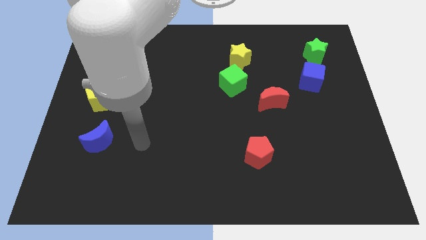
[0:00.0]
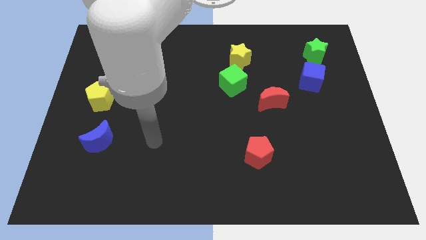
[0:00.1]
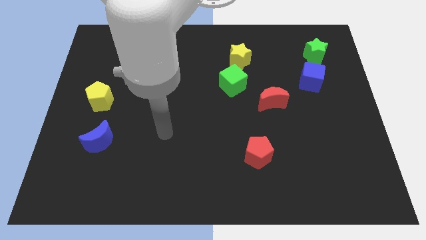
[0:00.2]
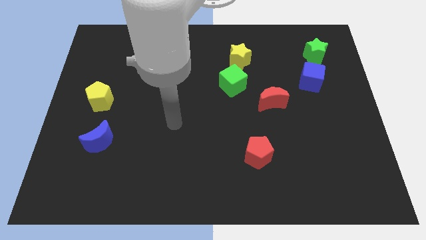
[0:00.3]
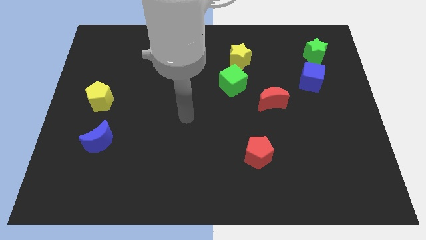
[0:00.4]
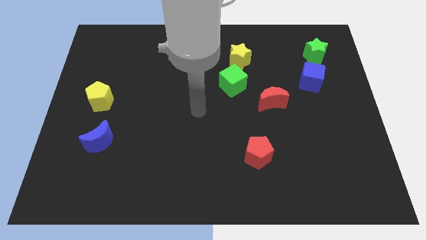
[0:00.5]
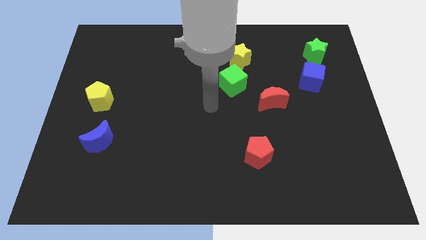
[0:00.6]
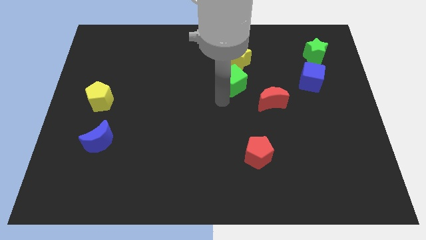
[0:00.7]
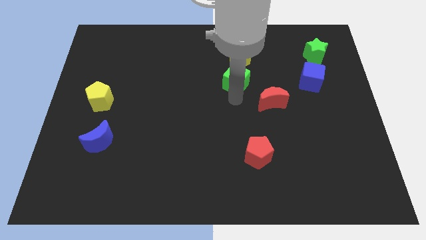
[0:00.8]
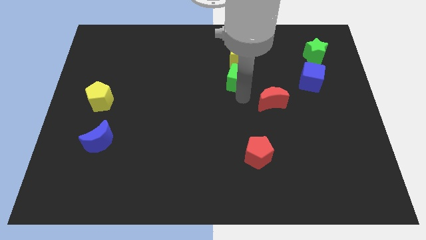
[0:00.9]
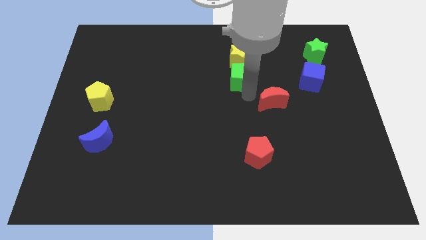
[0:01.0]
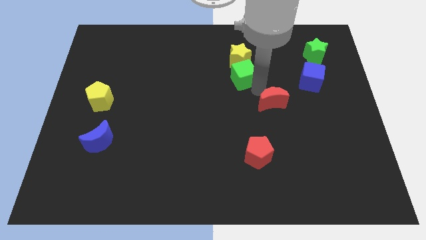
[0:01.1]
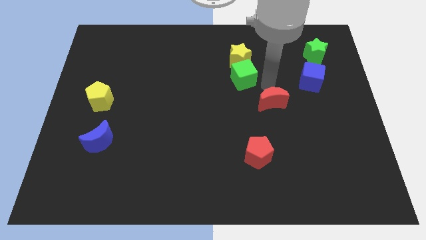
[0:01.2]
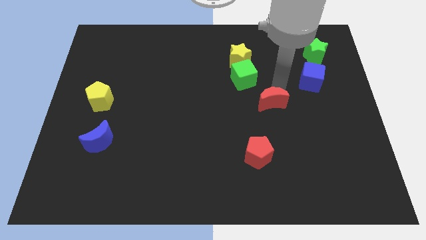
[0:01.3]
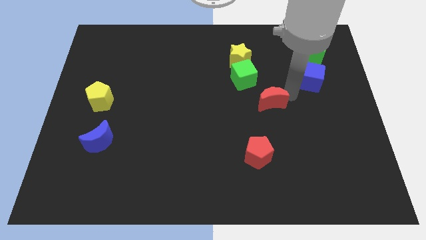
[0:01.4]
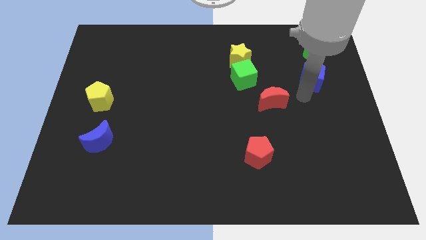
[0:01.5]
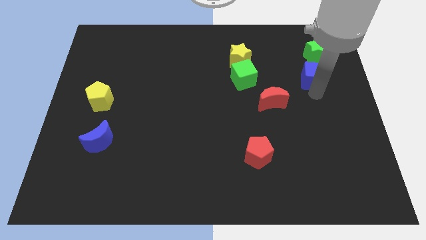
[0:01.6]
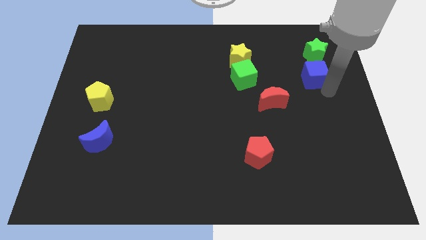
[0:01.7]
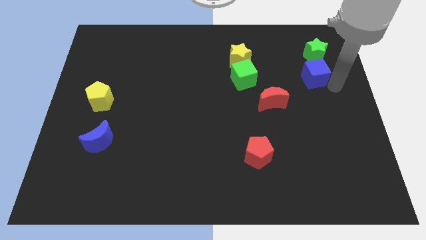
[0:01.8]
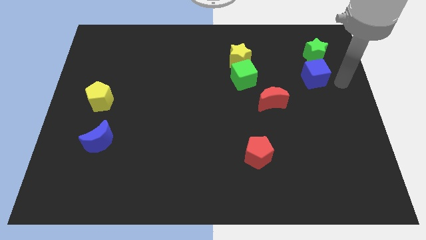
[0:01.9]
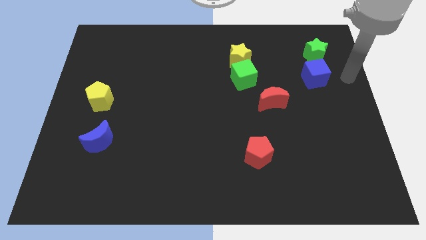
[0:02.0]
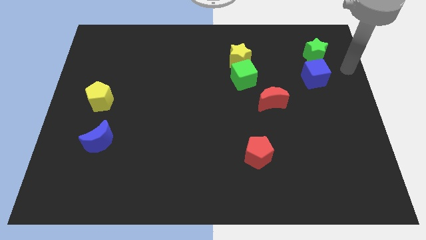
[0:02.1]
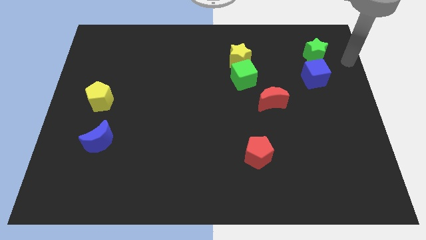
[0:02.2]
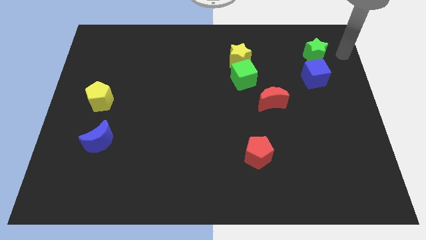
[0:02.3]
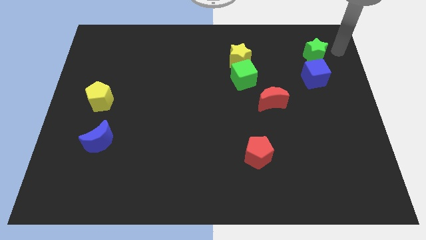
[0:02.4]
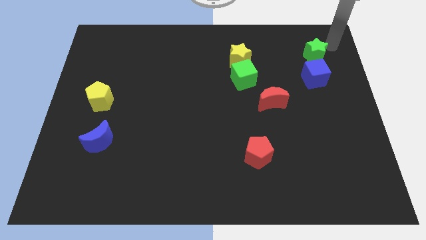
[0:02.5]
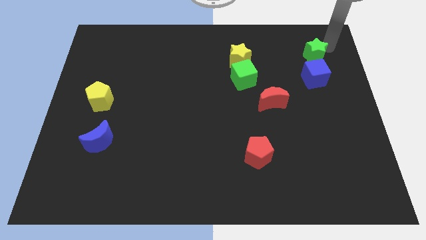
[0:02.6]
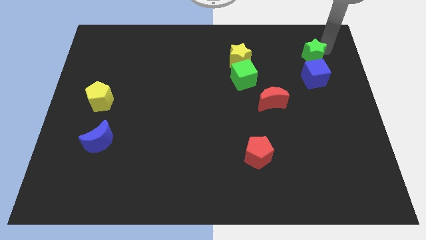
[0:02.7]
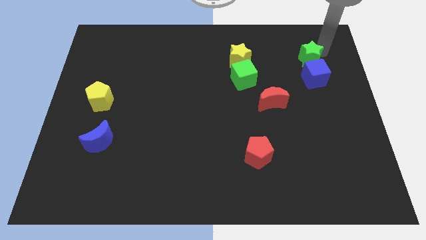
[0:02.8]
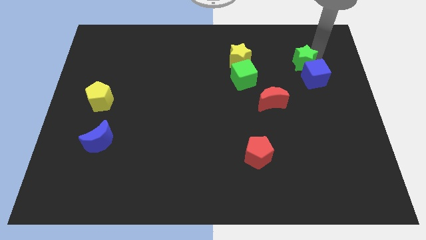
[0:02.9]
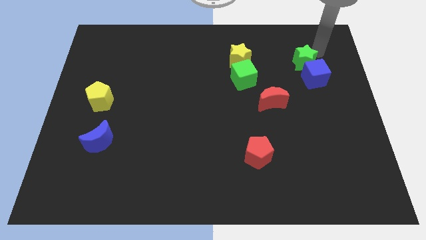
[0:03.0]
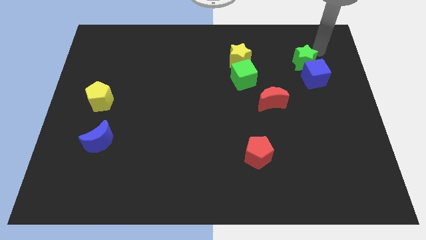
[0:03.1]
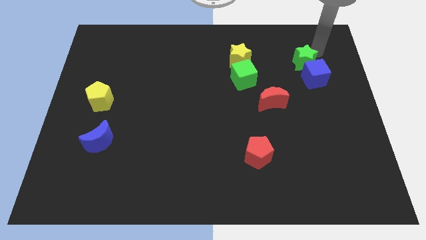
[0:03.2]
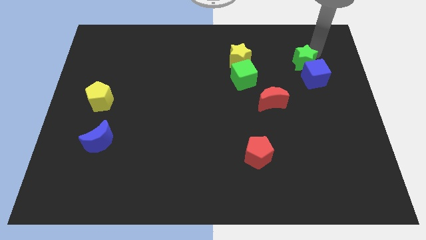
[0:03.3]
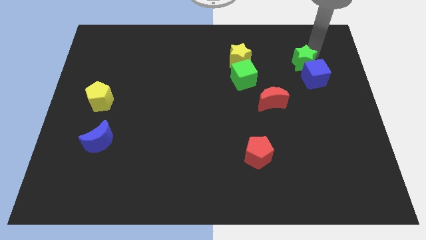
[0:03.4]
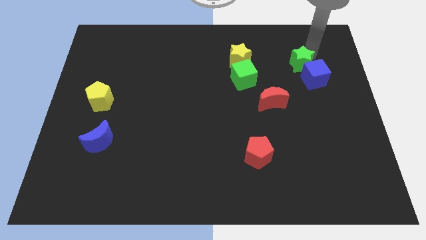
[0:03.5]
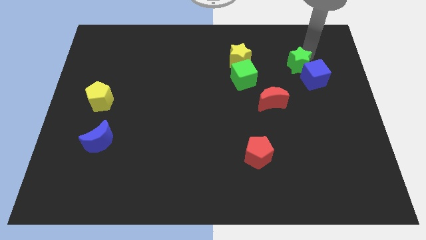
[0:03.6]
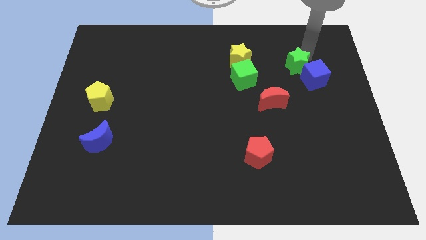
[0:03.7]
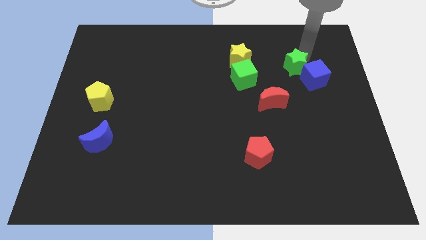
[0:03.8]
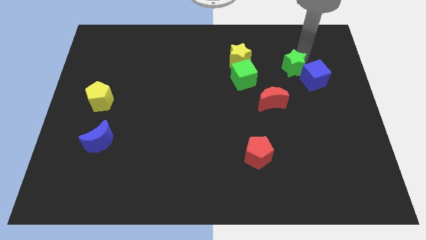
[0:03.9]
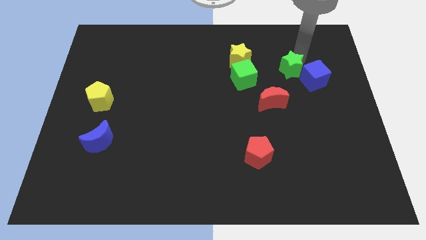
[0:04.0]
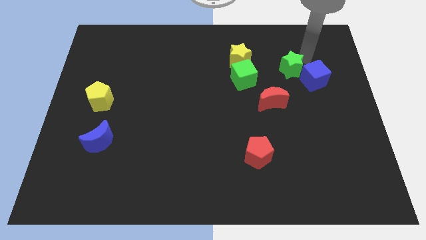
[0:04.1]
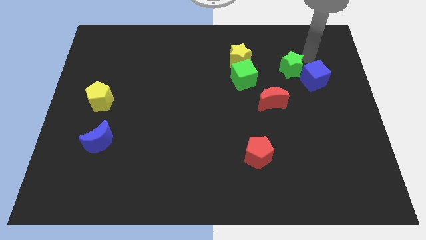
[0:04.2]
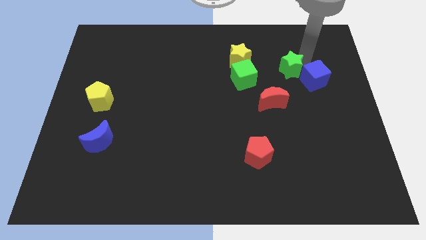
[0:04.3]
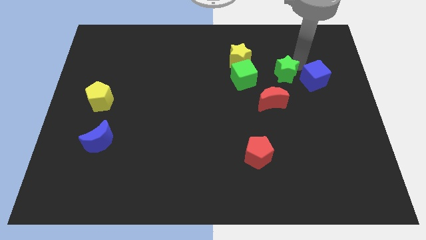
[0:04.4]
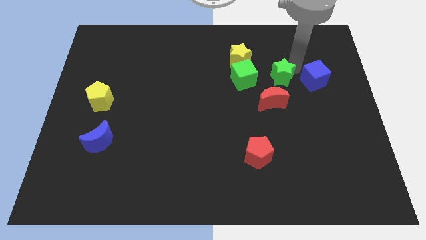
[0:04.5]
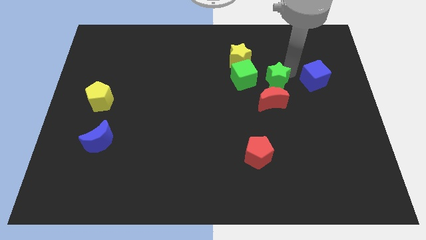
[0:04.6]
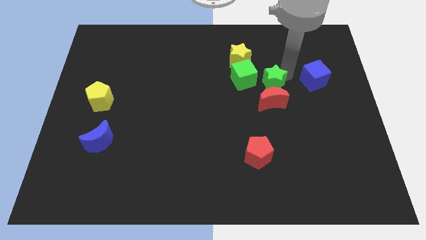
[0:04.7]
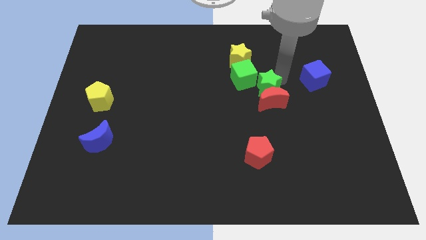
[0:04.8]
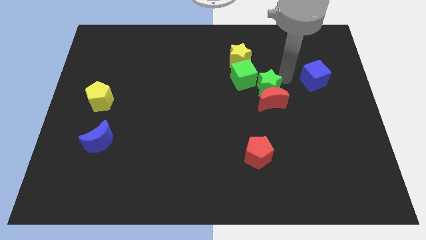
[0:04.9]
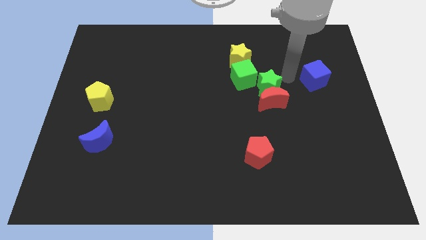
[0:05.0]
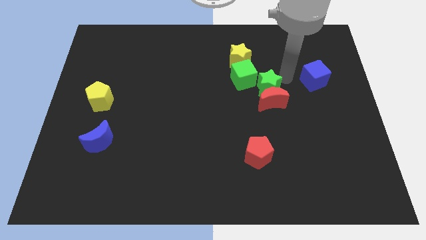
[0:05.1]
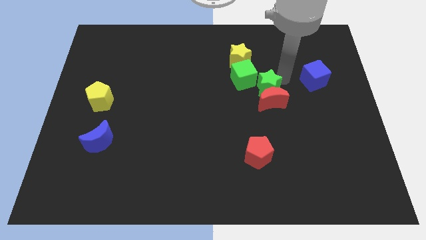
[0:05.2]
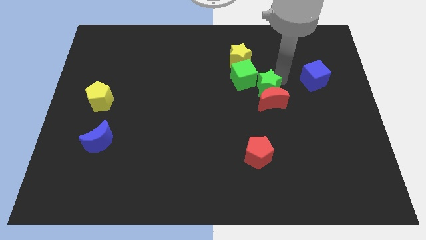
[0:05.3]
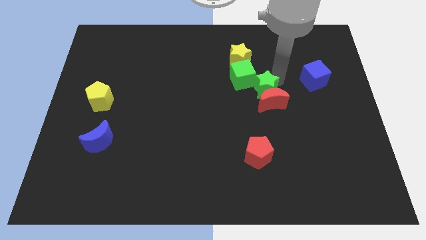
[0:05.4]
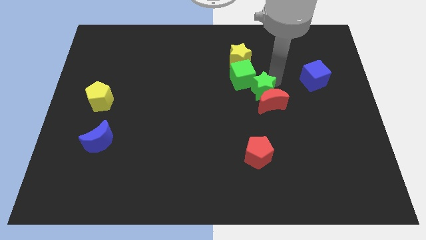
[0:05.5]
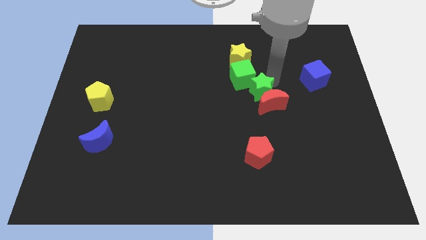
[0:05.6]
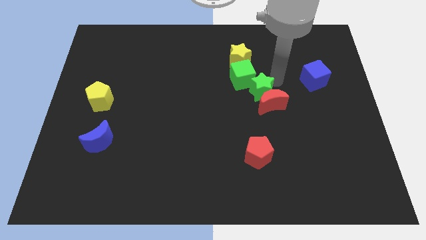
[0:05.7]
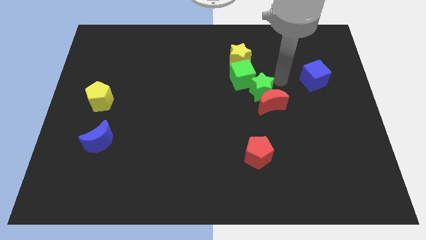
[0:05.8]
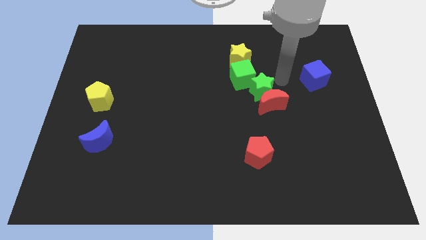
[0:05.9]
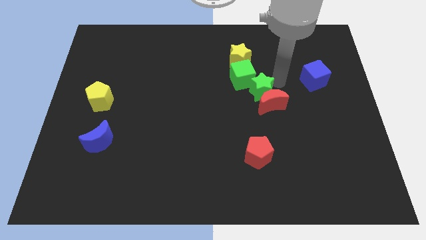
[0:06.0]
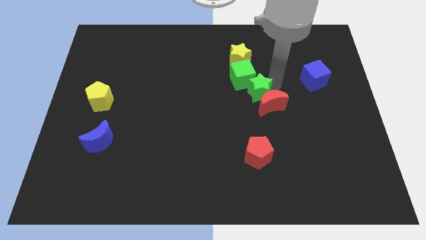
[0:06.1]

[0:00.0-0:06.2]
put the green star to the left side of the red moon

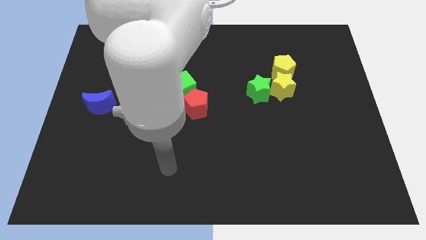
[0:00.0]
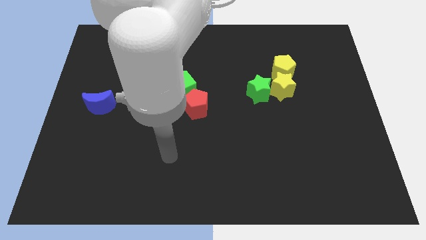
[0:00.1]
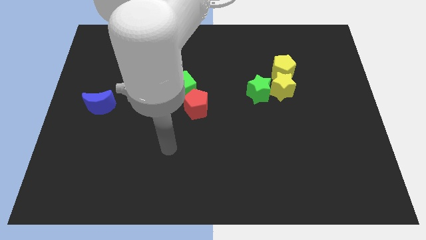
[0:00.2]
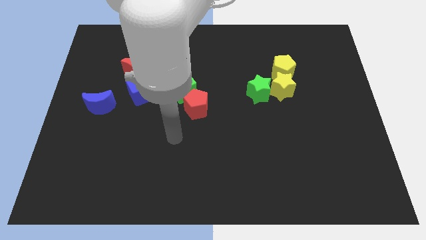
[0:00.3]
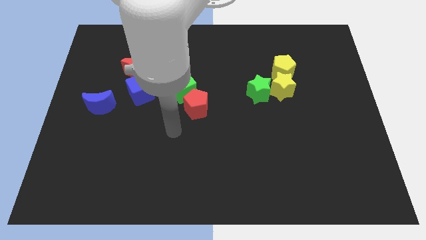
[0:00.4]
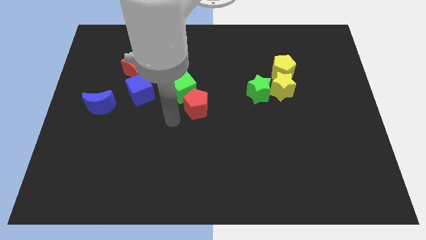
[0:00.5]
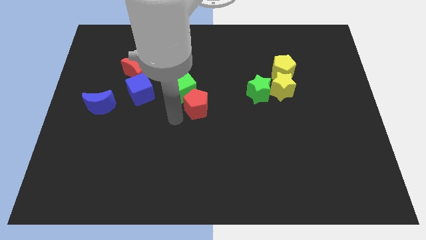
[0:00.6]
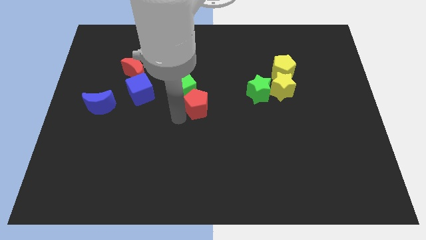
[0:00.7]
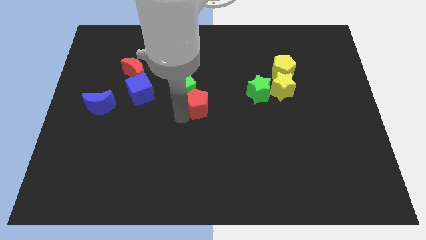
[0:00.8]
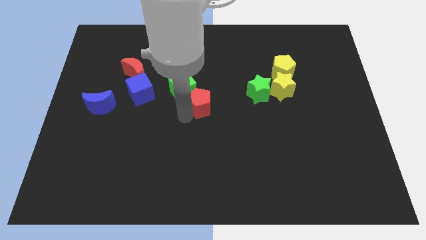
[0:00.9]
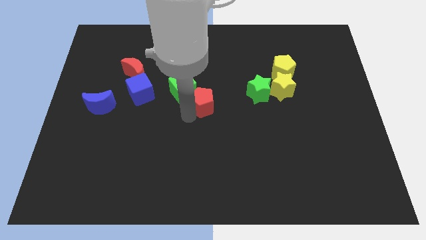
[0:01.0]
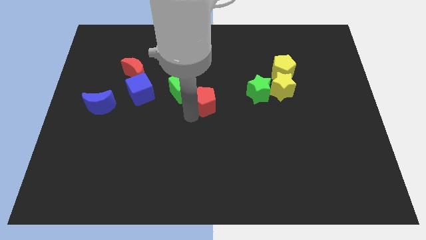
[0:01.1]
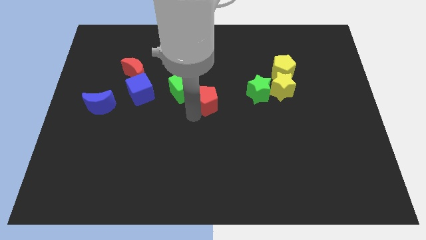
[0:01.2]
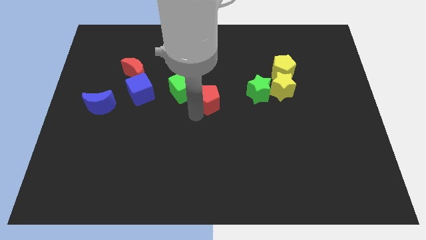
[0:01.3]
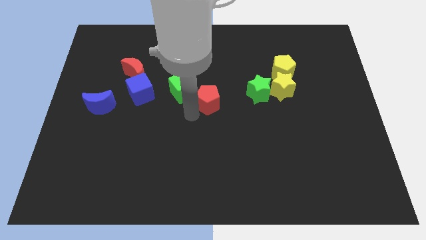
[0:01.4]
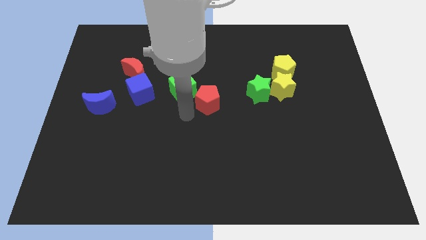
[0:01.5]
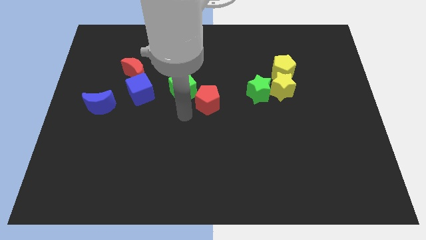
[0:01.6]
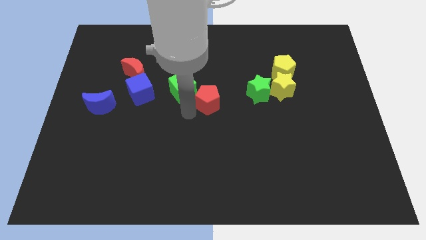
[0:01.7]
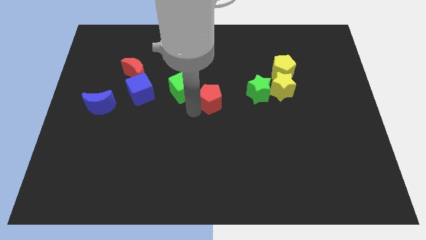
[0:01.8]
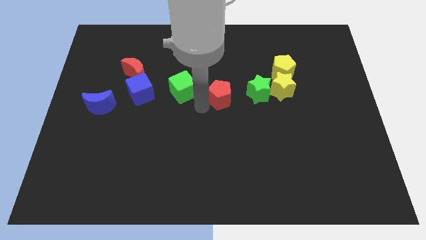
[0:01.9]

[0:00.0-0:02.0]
push the red pentagon left of the yellow star
